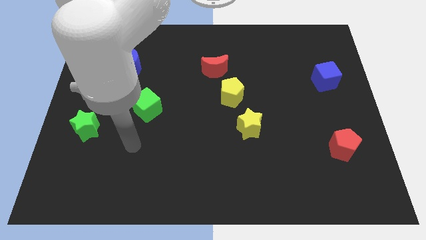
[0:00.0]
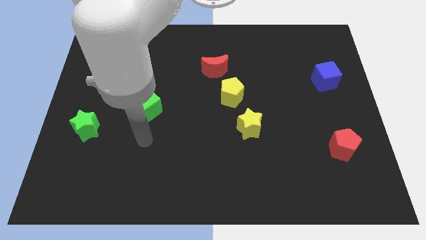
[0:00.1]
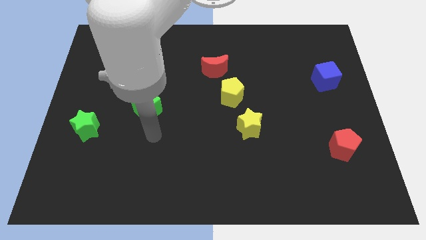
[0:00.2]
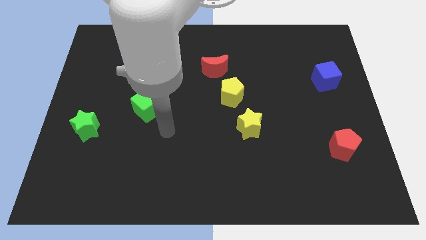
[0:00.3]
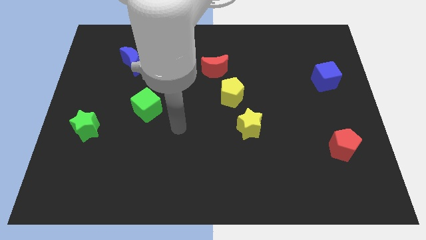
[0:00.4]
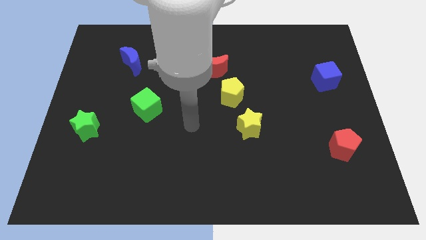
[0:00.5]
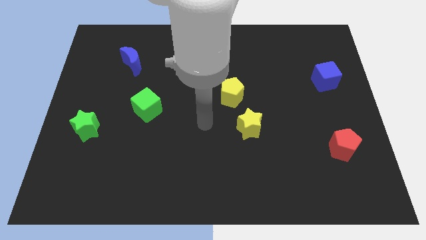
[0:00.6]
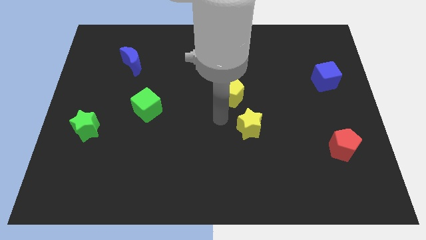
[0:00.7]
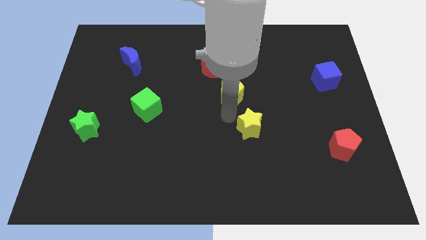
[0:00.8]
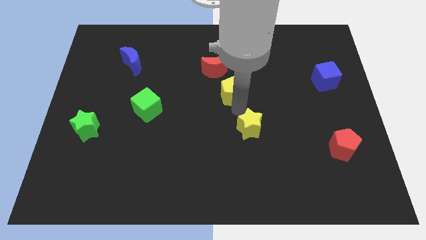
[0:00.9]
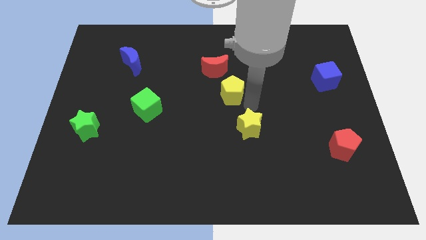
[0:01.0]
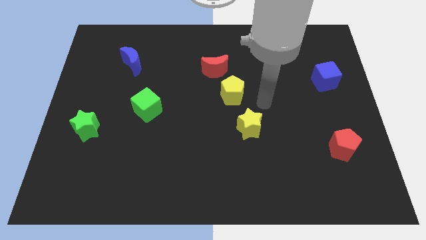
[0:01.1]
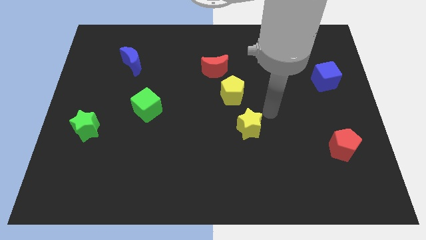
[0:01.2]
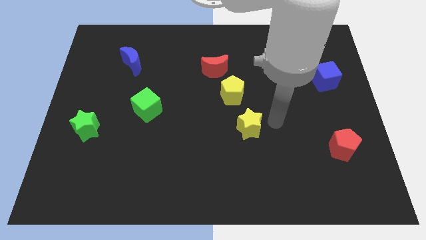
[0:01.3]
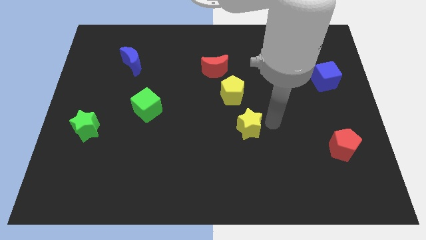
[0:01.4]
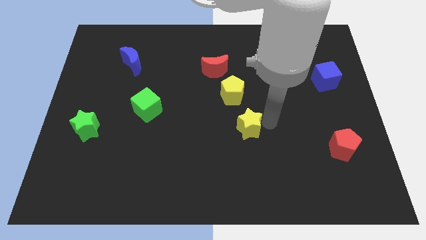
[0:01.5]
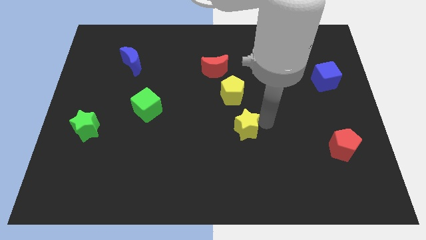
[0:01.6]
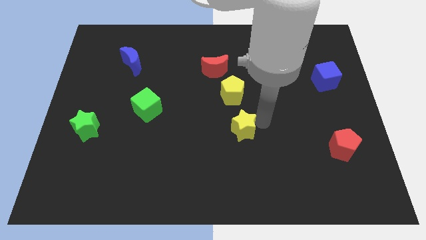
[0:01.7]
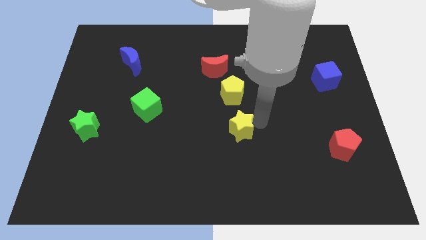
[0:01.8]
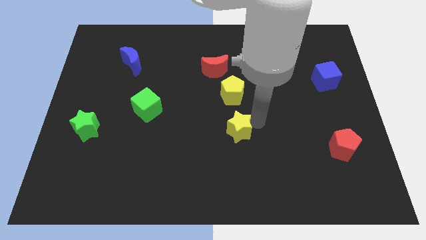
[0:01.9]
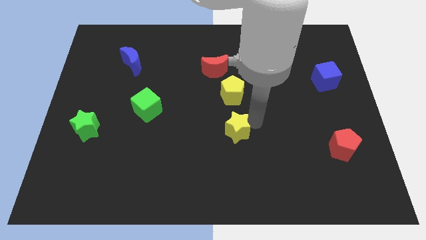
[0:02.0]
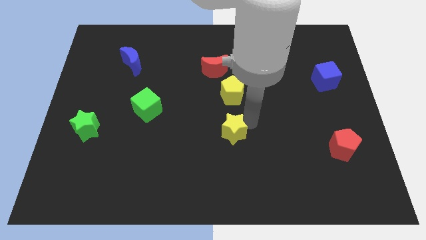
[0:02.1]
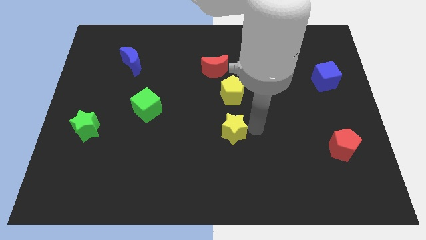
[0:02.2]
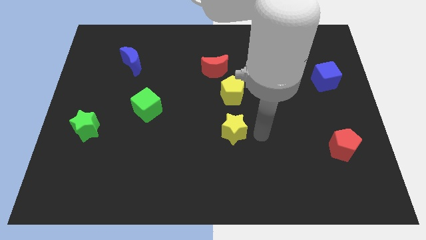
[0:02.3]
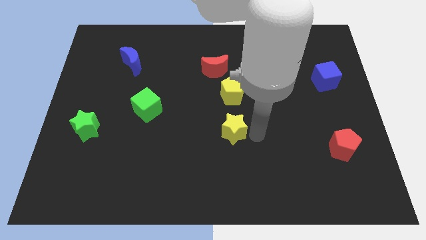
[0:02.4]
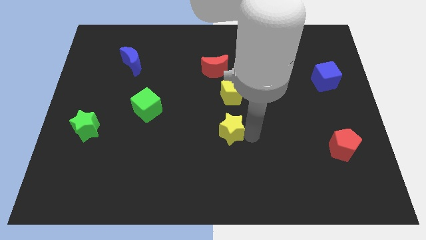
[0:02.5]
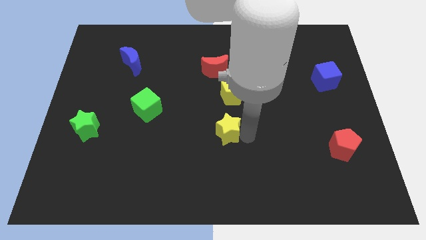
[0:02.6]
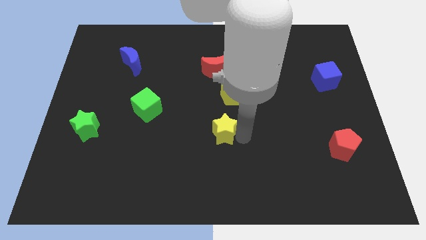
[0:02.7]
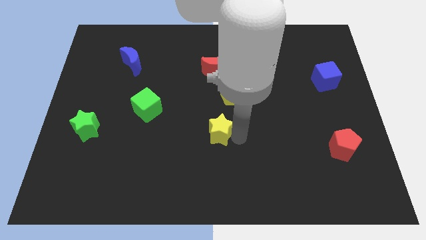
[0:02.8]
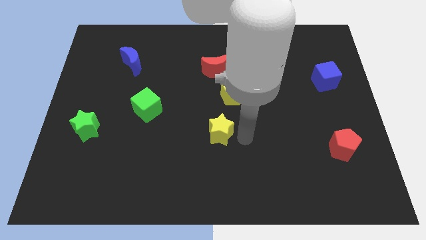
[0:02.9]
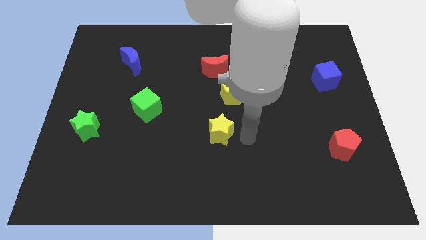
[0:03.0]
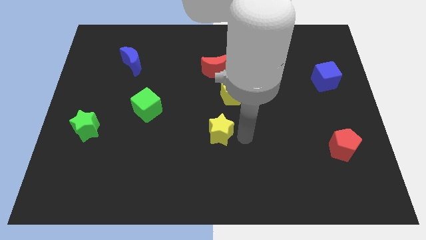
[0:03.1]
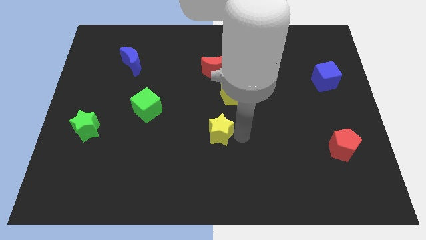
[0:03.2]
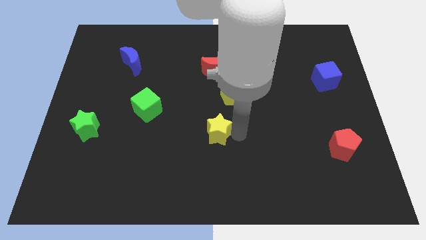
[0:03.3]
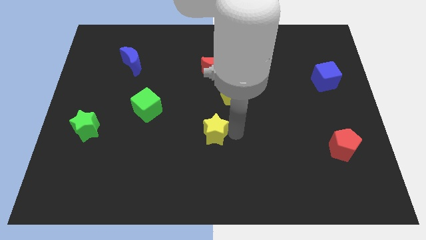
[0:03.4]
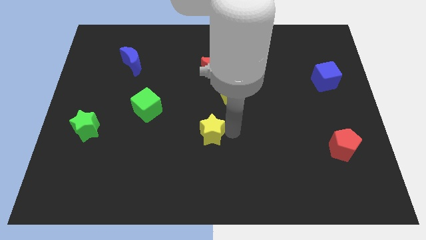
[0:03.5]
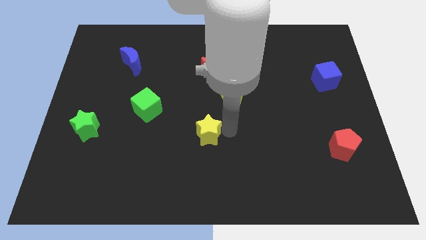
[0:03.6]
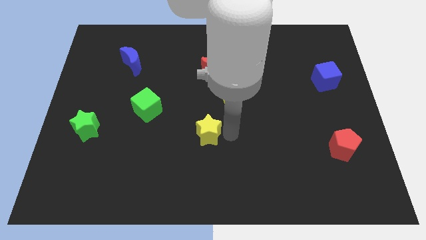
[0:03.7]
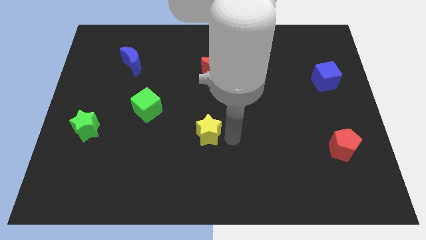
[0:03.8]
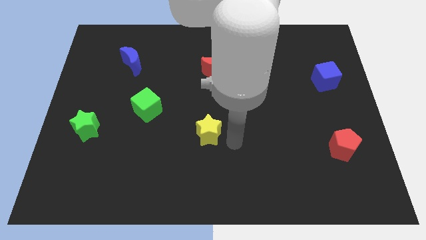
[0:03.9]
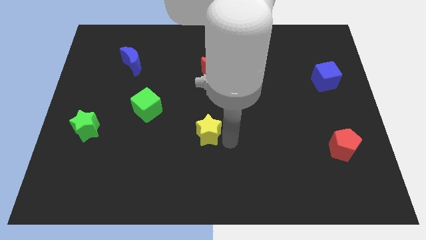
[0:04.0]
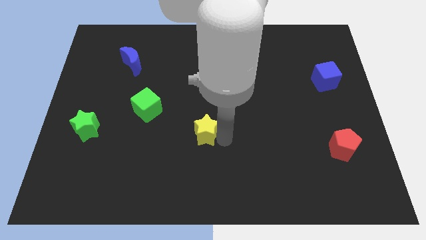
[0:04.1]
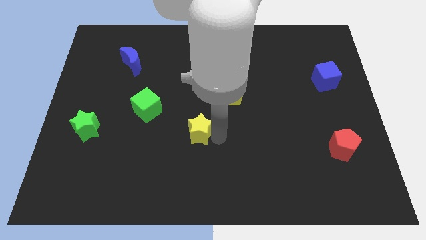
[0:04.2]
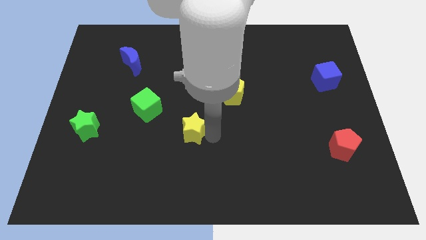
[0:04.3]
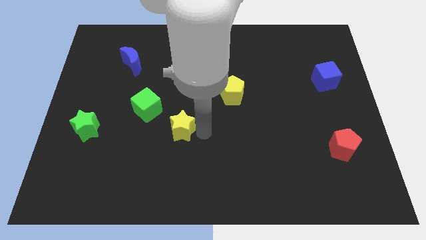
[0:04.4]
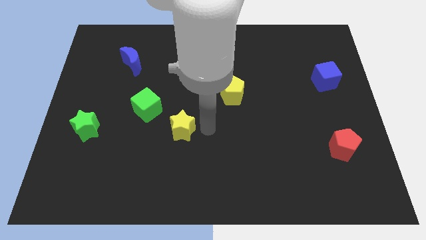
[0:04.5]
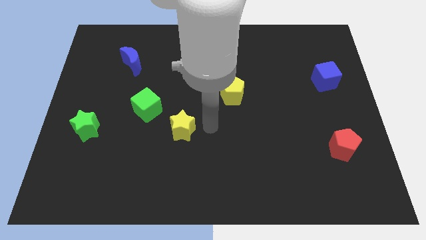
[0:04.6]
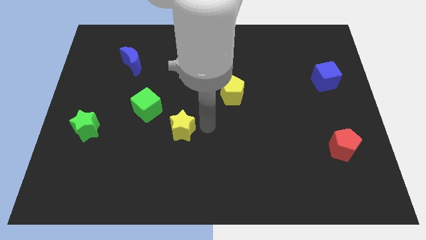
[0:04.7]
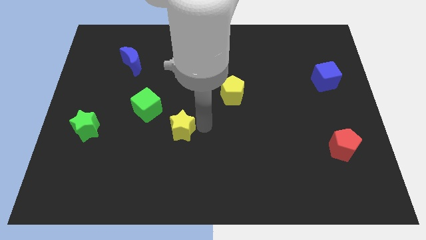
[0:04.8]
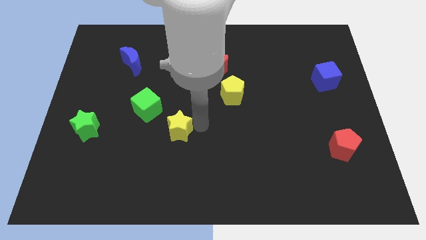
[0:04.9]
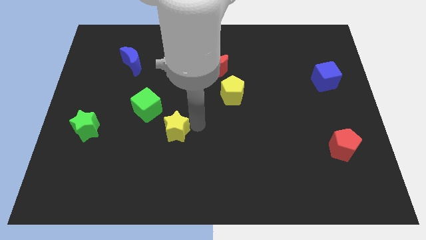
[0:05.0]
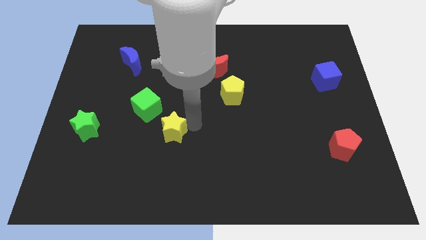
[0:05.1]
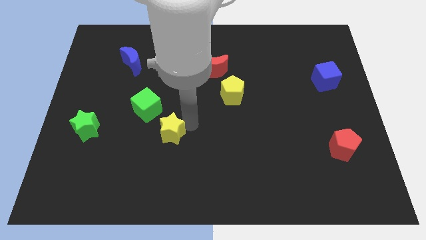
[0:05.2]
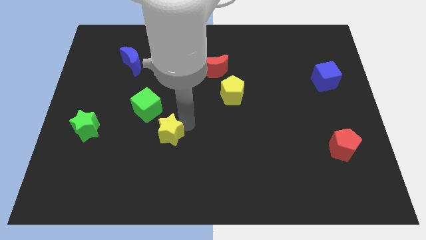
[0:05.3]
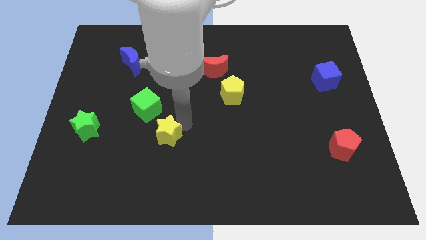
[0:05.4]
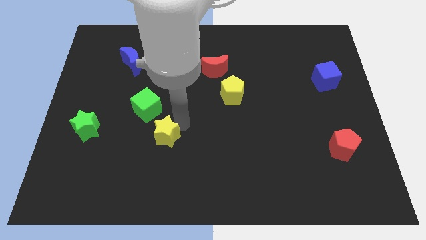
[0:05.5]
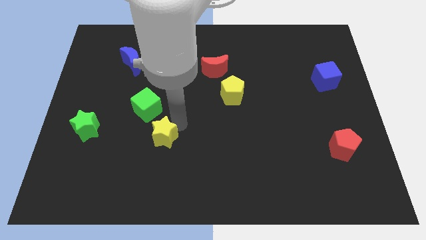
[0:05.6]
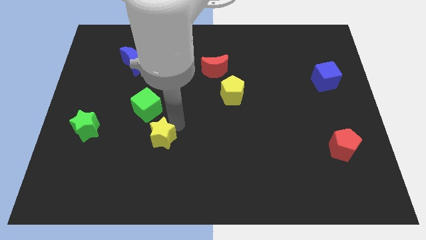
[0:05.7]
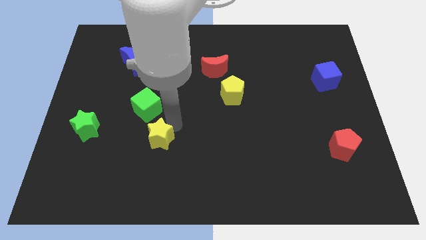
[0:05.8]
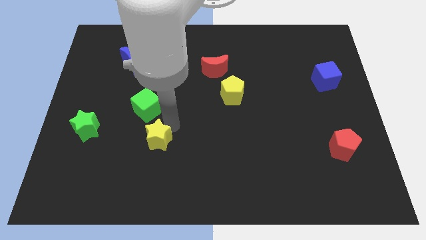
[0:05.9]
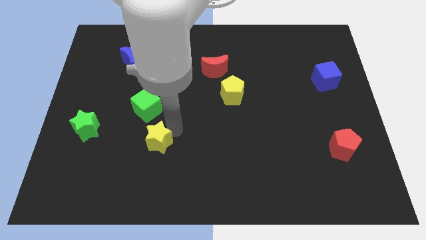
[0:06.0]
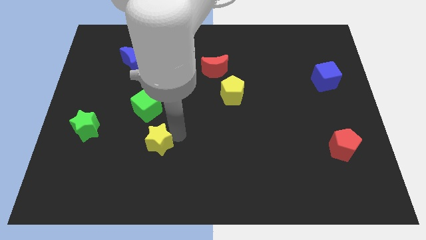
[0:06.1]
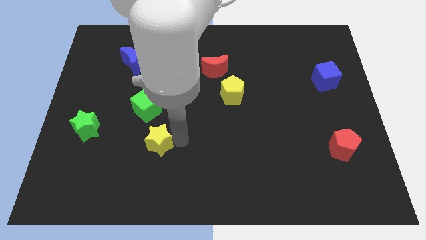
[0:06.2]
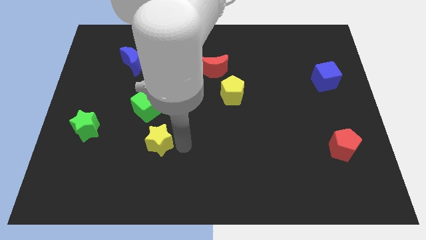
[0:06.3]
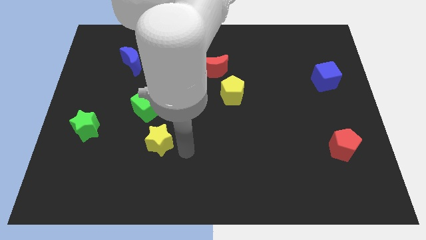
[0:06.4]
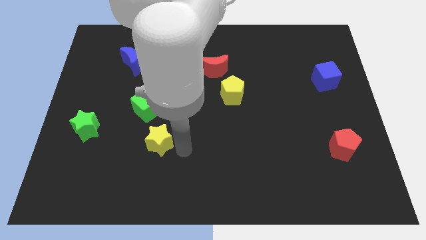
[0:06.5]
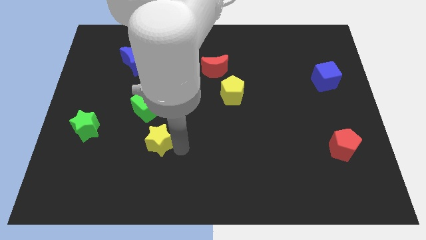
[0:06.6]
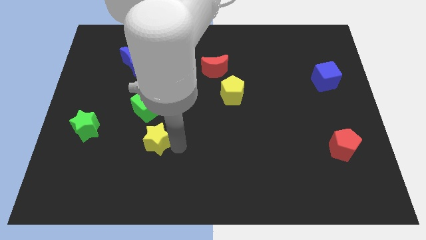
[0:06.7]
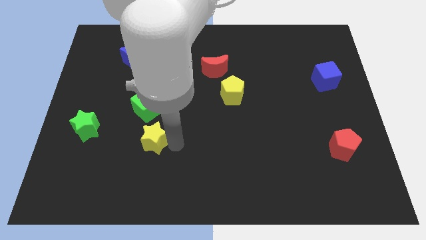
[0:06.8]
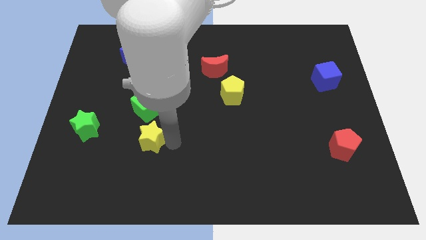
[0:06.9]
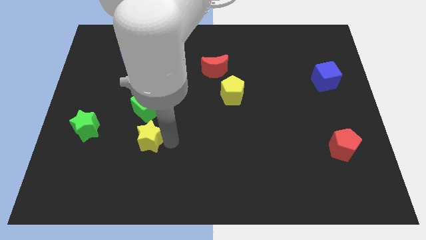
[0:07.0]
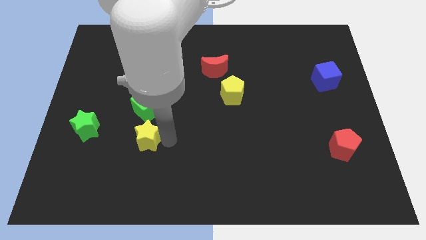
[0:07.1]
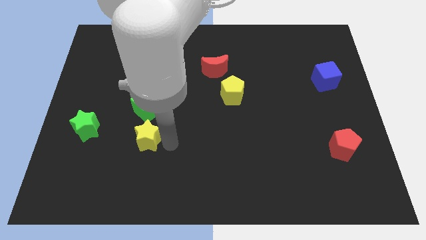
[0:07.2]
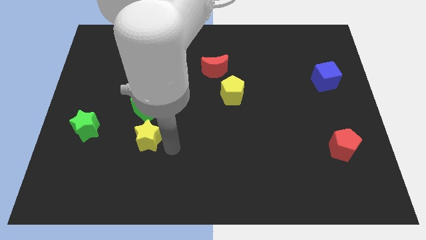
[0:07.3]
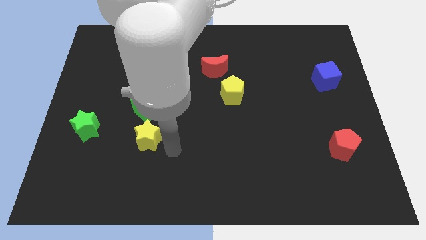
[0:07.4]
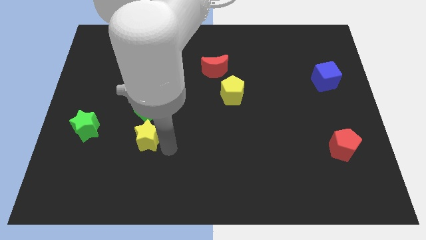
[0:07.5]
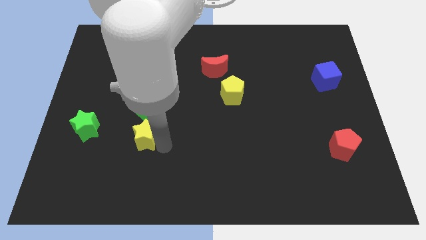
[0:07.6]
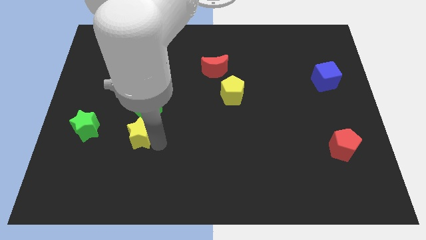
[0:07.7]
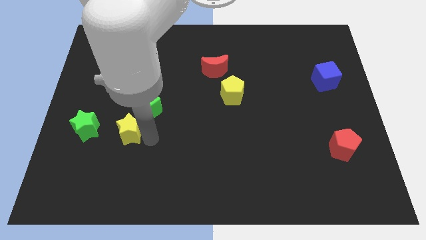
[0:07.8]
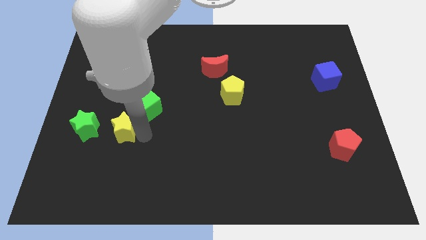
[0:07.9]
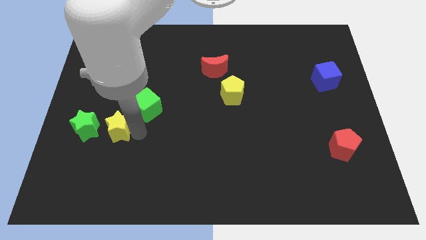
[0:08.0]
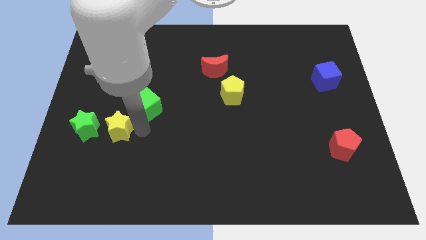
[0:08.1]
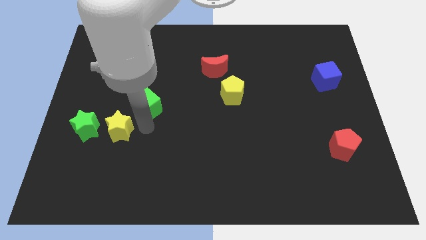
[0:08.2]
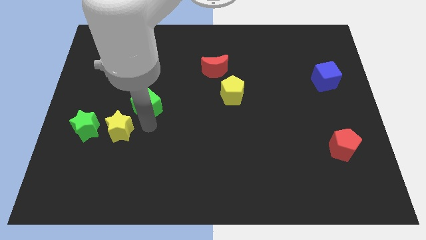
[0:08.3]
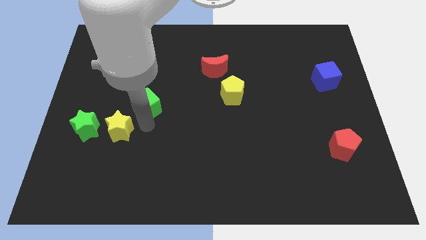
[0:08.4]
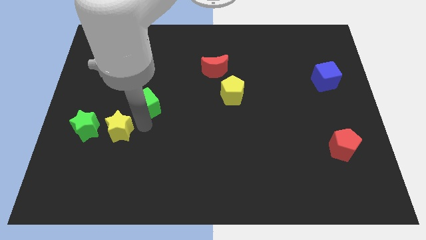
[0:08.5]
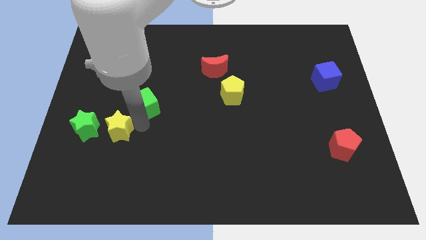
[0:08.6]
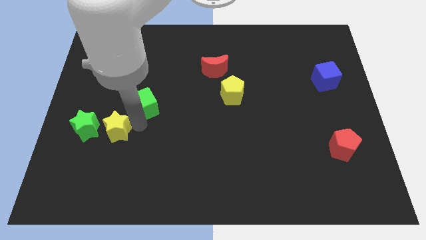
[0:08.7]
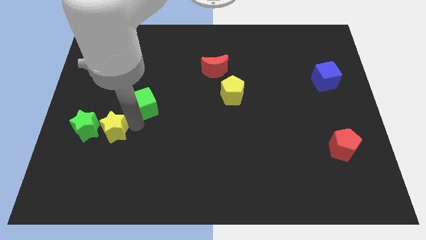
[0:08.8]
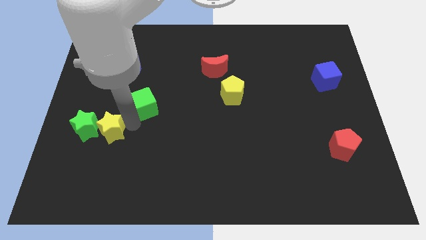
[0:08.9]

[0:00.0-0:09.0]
slide the yellow star next to the green star
